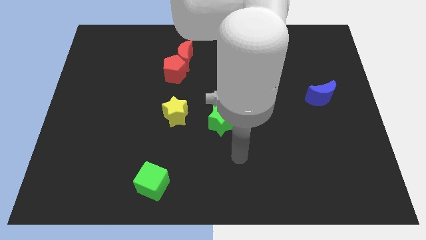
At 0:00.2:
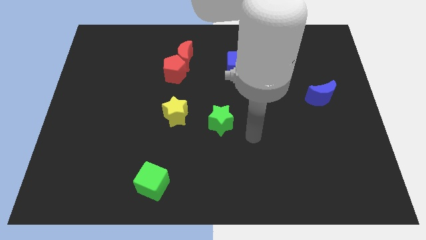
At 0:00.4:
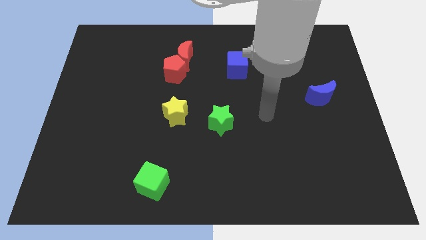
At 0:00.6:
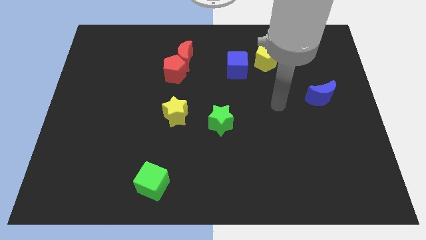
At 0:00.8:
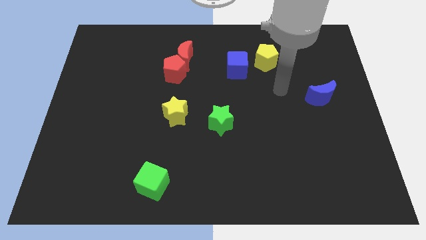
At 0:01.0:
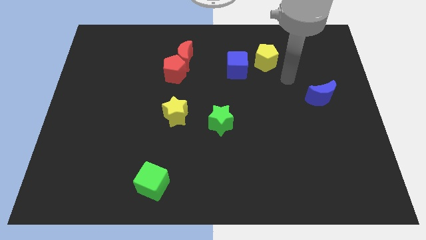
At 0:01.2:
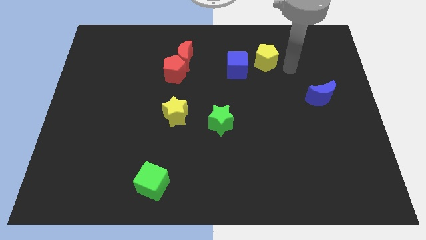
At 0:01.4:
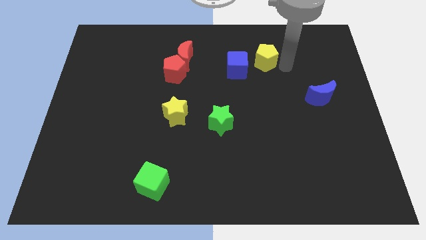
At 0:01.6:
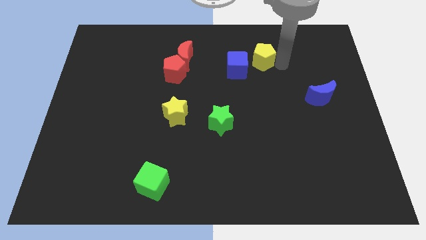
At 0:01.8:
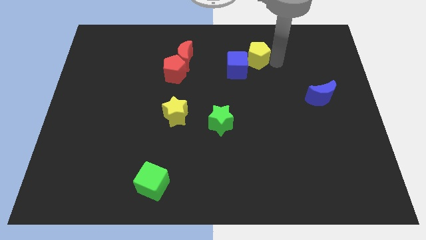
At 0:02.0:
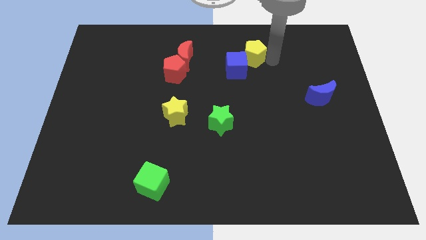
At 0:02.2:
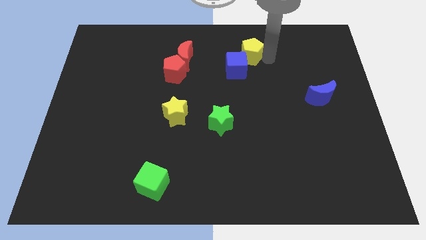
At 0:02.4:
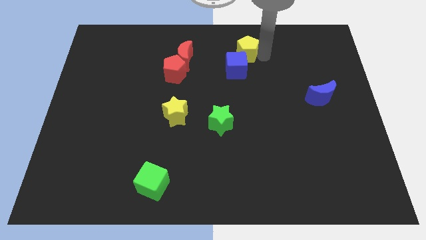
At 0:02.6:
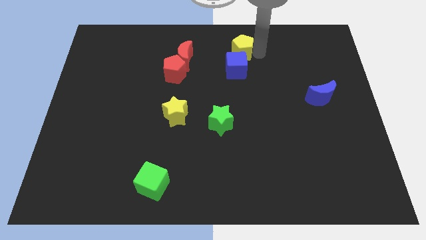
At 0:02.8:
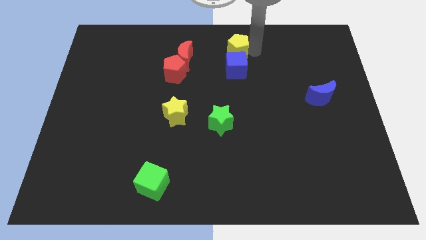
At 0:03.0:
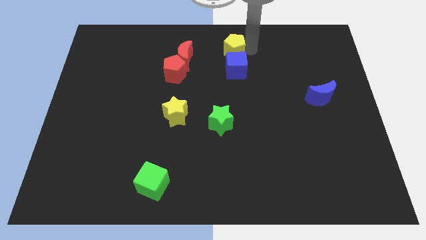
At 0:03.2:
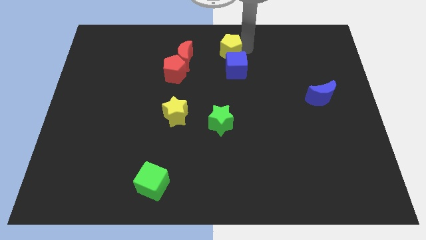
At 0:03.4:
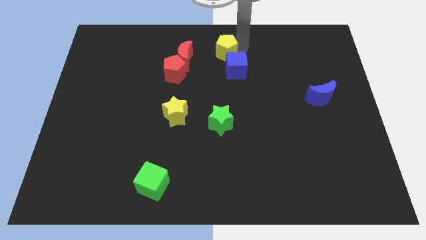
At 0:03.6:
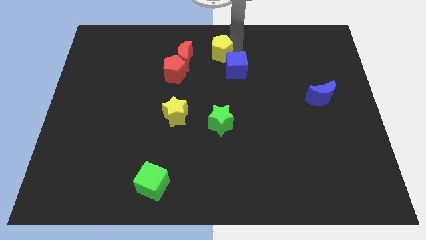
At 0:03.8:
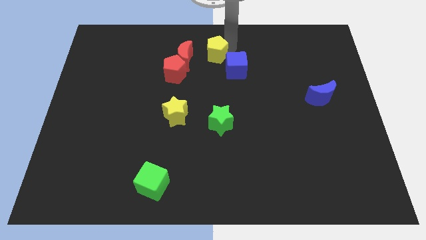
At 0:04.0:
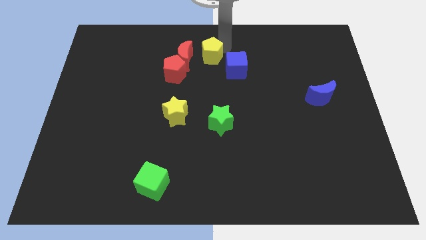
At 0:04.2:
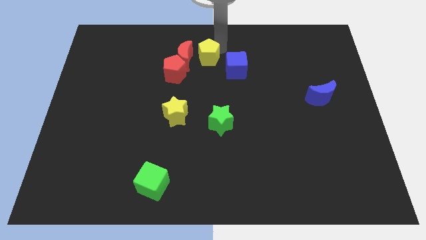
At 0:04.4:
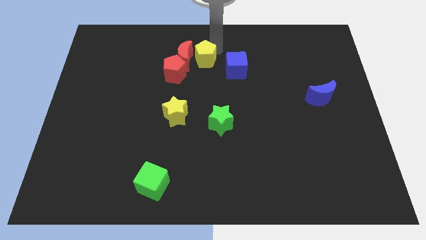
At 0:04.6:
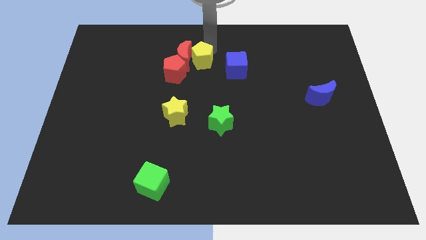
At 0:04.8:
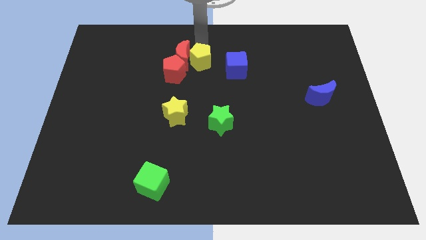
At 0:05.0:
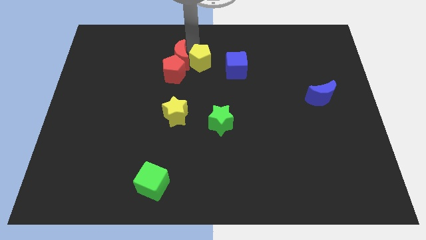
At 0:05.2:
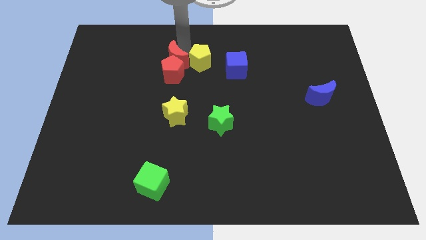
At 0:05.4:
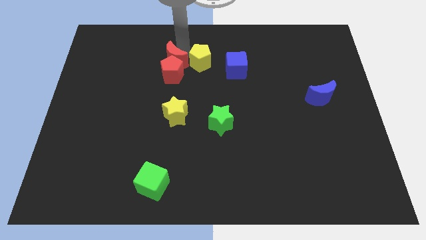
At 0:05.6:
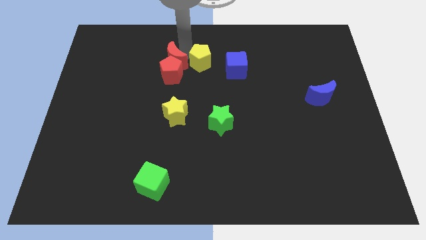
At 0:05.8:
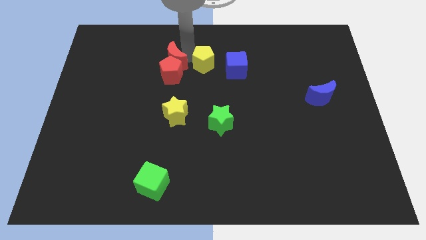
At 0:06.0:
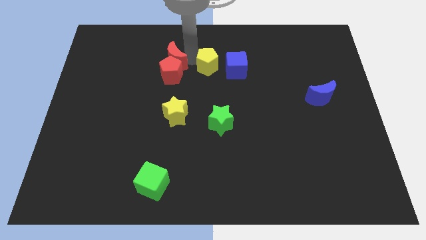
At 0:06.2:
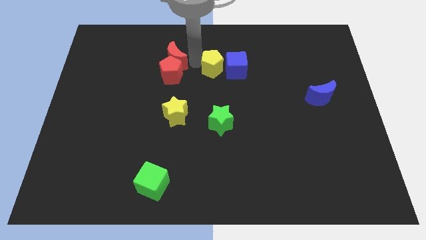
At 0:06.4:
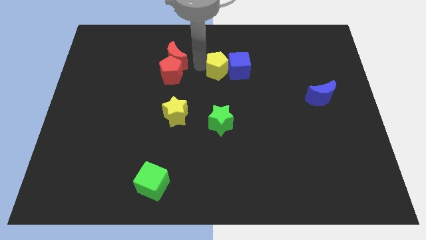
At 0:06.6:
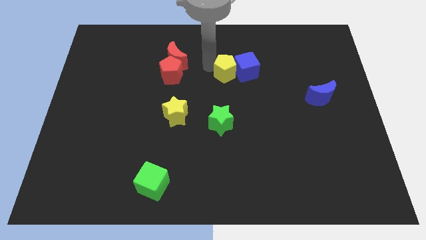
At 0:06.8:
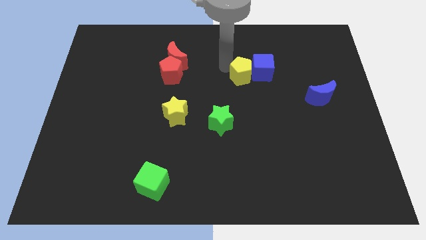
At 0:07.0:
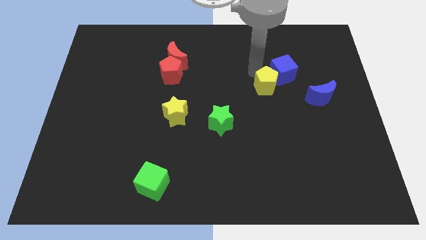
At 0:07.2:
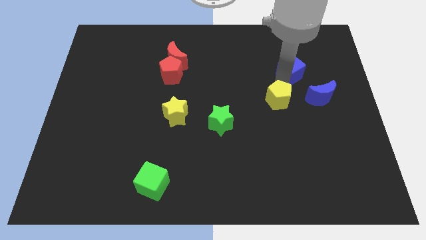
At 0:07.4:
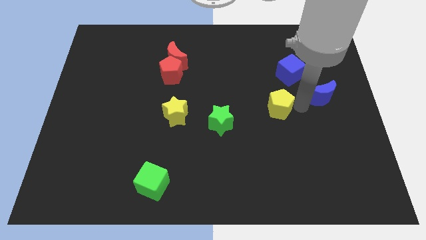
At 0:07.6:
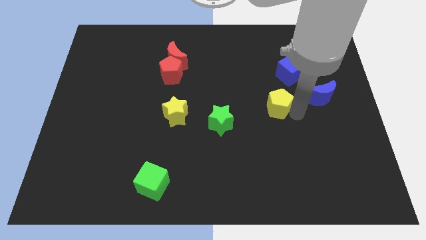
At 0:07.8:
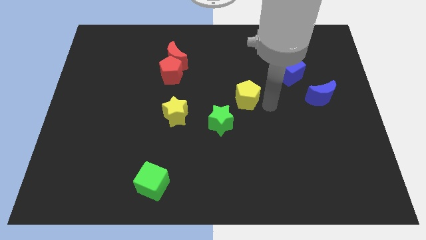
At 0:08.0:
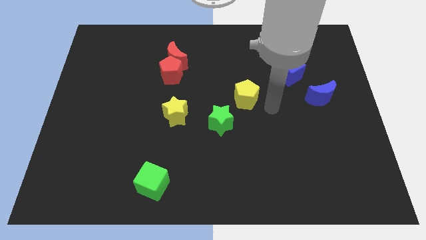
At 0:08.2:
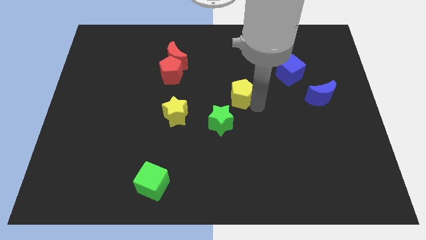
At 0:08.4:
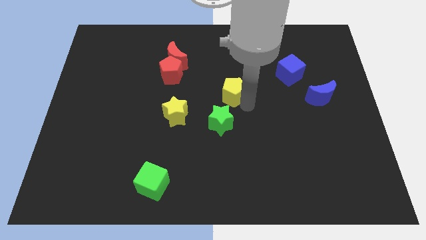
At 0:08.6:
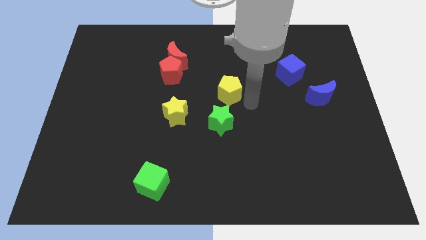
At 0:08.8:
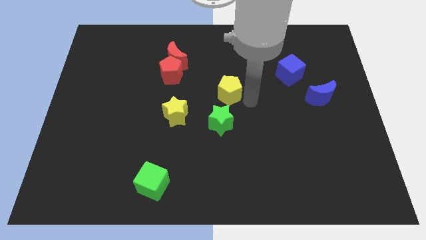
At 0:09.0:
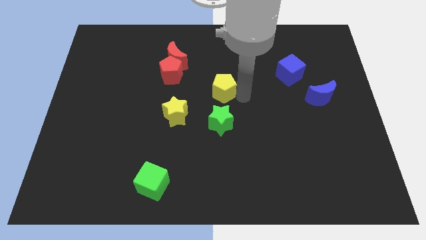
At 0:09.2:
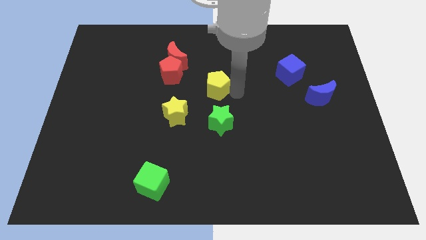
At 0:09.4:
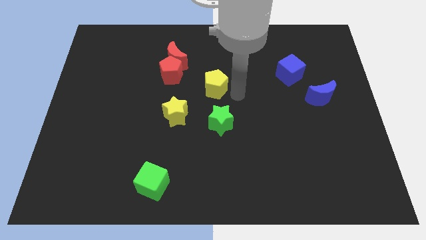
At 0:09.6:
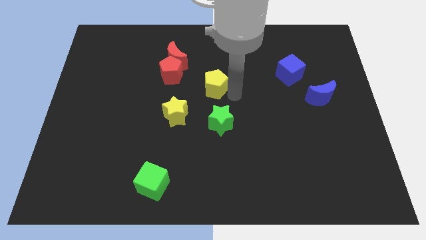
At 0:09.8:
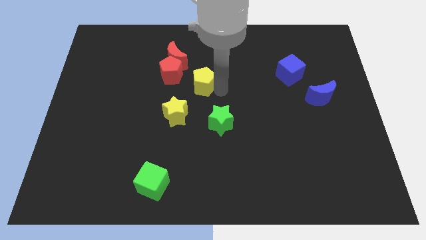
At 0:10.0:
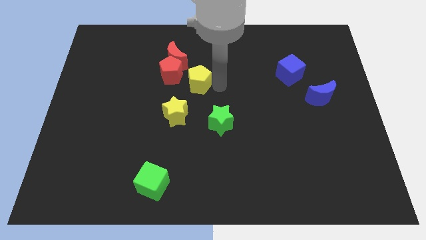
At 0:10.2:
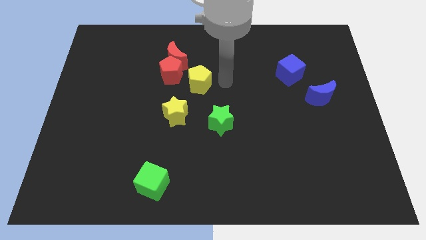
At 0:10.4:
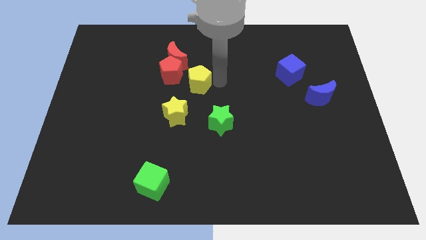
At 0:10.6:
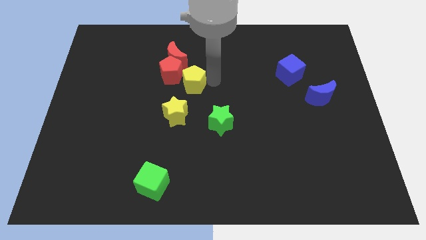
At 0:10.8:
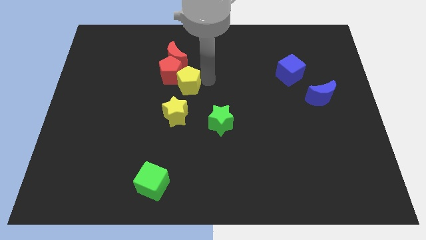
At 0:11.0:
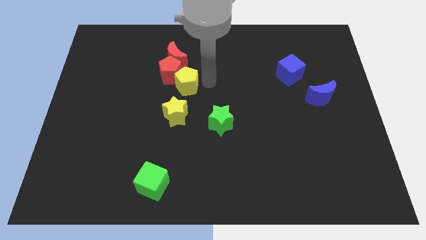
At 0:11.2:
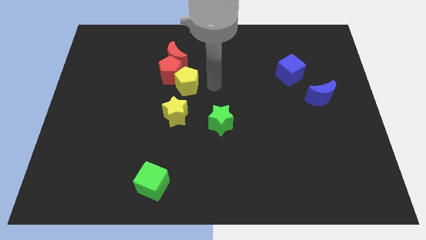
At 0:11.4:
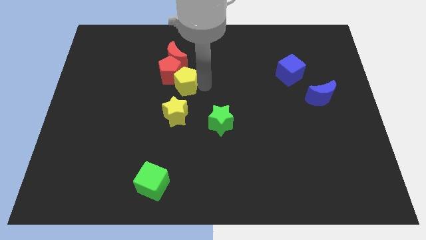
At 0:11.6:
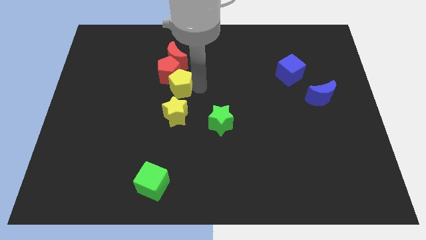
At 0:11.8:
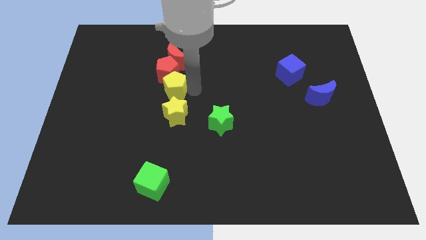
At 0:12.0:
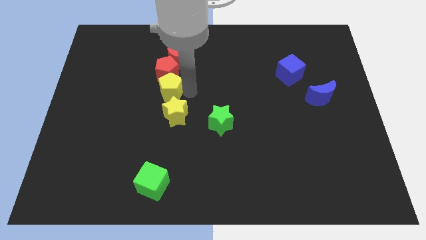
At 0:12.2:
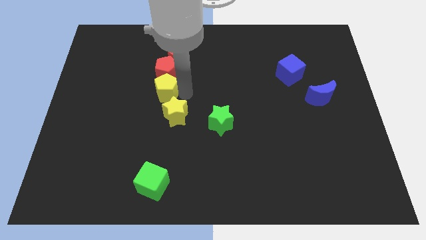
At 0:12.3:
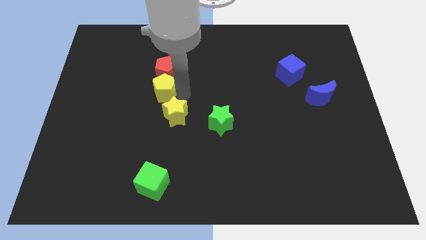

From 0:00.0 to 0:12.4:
push the yellow pentagon left

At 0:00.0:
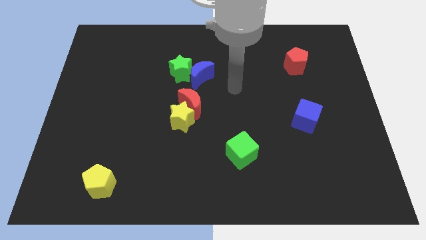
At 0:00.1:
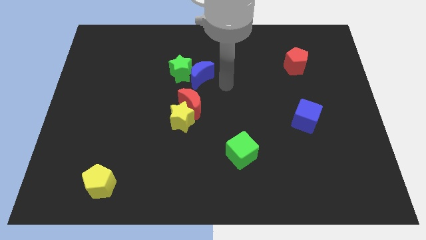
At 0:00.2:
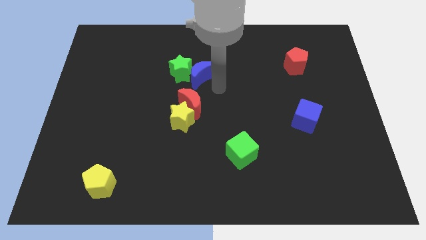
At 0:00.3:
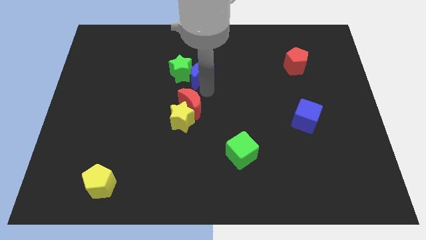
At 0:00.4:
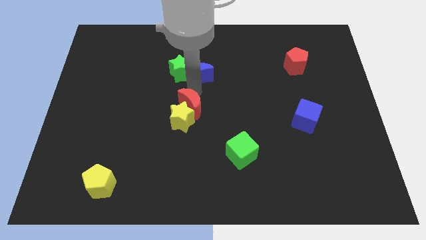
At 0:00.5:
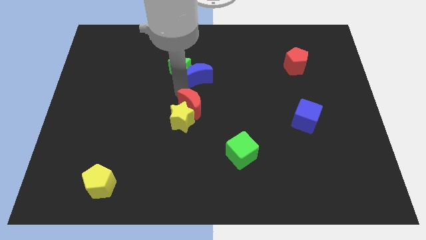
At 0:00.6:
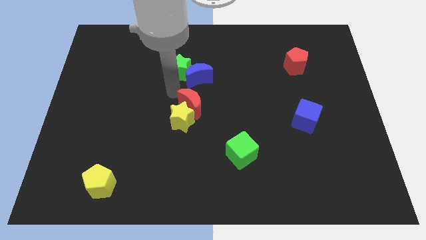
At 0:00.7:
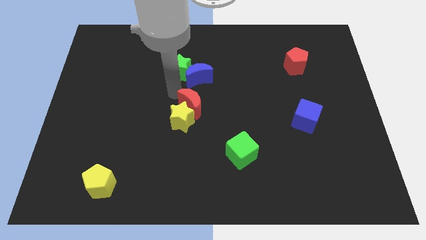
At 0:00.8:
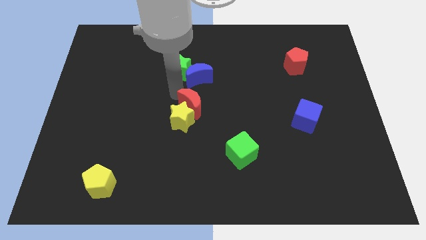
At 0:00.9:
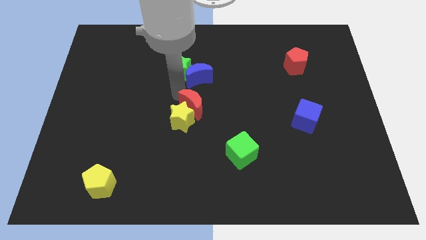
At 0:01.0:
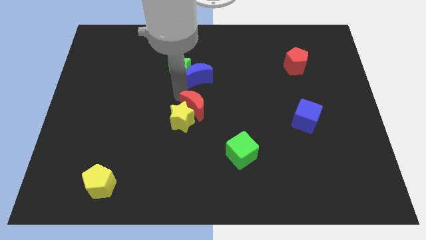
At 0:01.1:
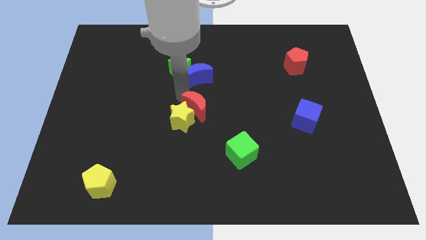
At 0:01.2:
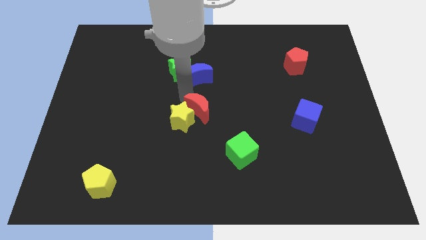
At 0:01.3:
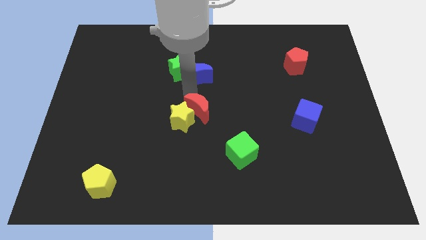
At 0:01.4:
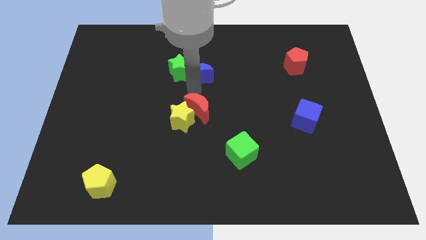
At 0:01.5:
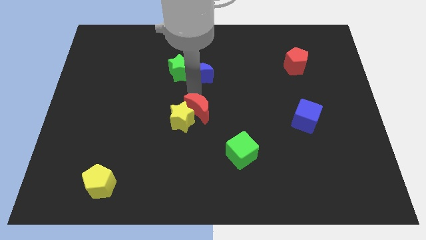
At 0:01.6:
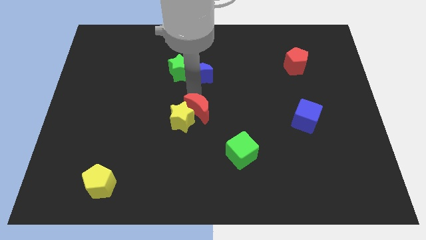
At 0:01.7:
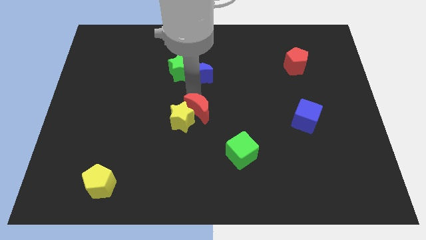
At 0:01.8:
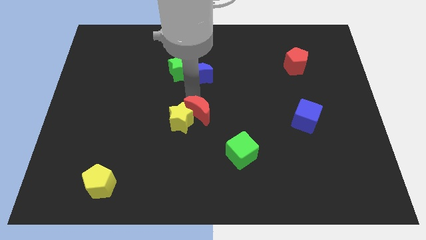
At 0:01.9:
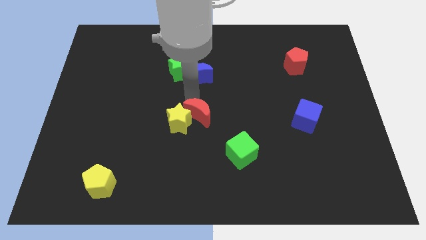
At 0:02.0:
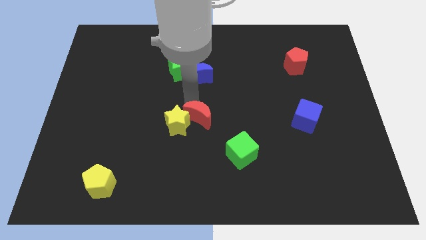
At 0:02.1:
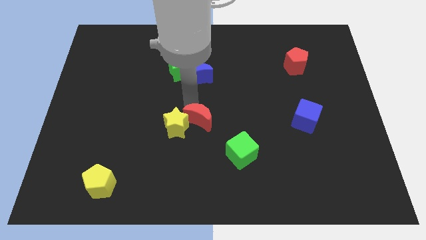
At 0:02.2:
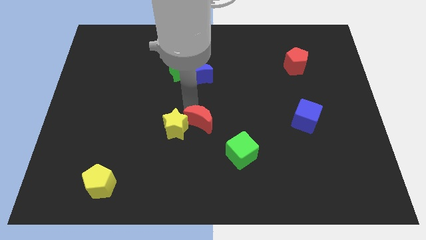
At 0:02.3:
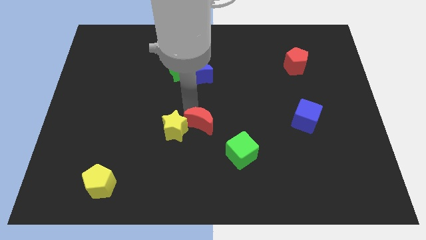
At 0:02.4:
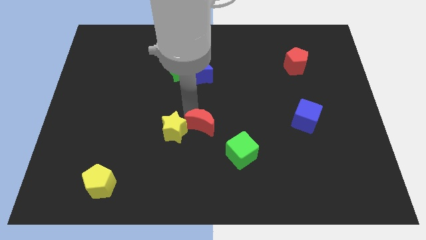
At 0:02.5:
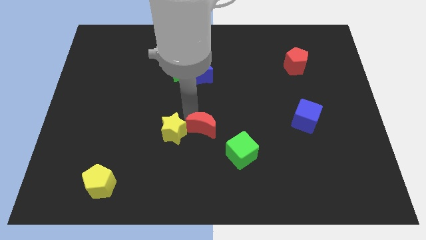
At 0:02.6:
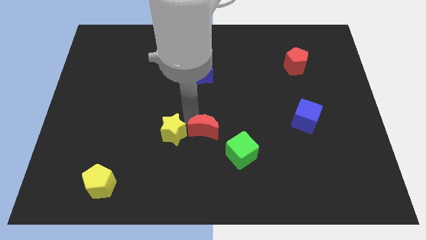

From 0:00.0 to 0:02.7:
move the red moon down a bit
